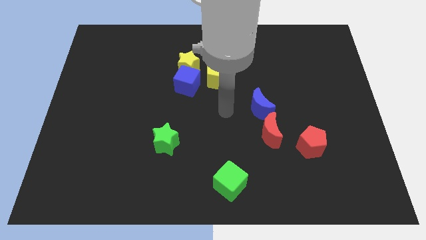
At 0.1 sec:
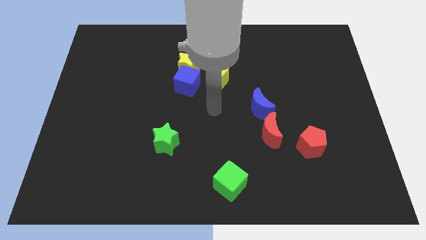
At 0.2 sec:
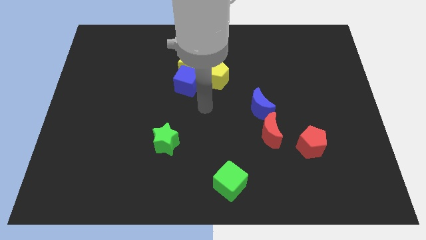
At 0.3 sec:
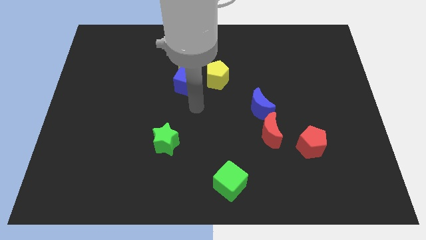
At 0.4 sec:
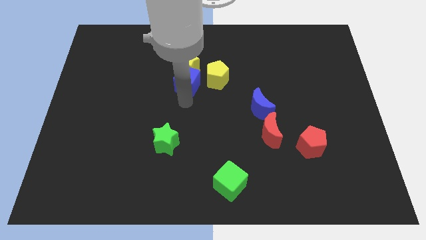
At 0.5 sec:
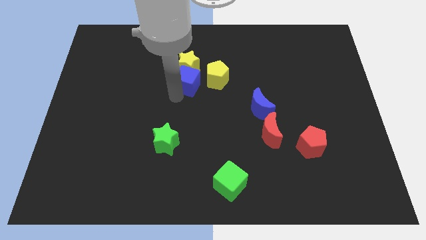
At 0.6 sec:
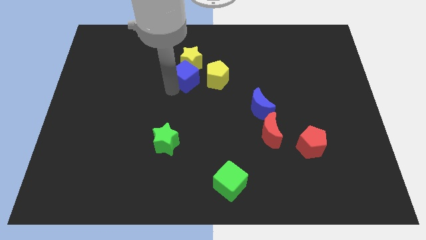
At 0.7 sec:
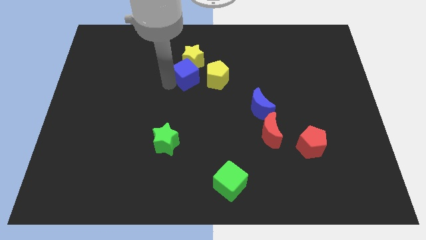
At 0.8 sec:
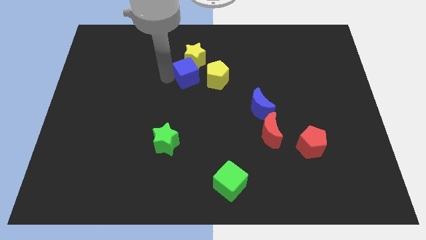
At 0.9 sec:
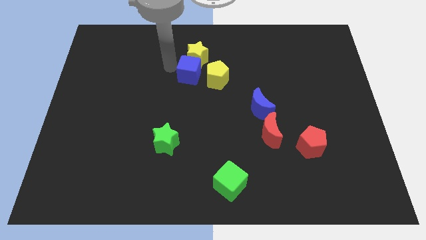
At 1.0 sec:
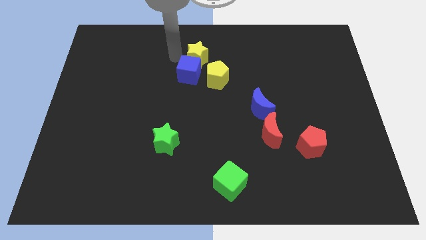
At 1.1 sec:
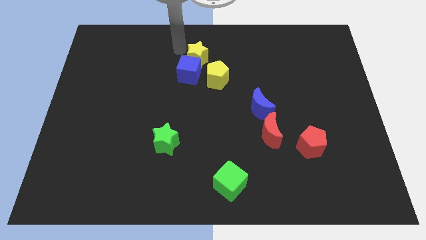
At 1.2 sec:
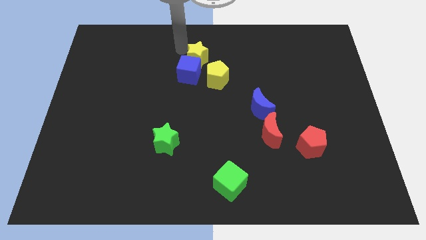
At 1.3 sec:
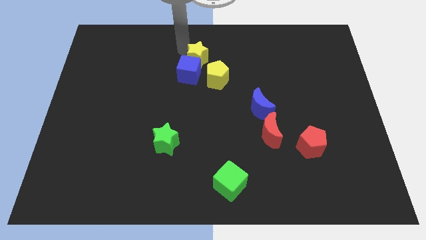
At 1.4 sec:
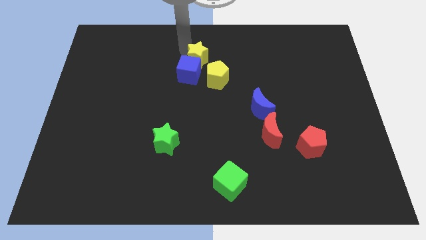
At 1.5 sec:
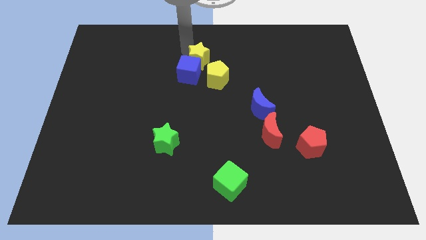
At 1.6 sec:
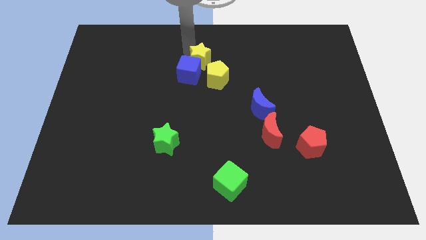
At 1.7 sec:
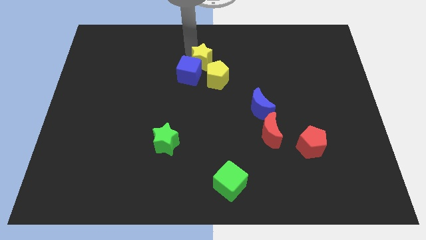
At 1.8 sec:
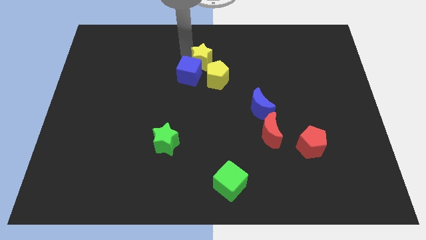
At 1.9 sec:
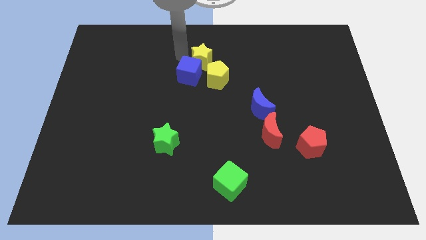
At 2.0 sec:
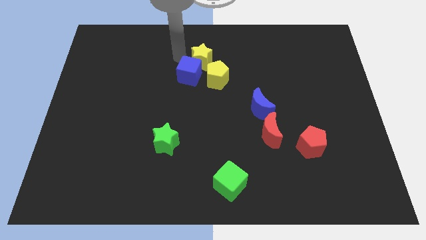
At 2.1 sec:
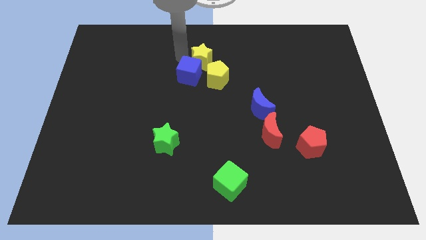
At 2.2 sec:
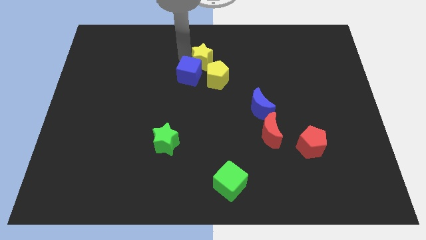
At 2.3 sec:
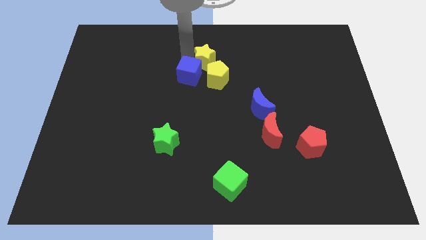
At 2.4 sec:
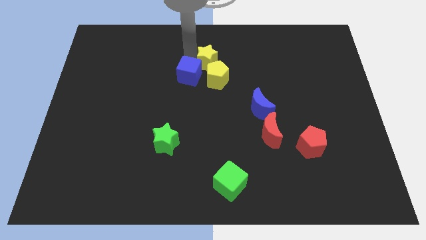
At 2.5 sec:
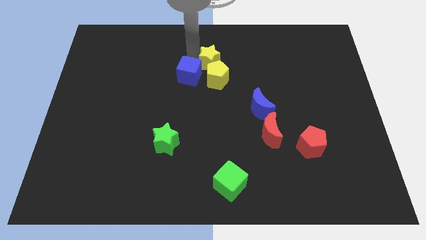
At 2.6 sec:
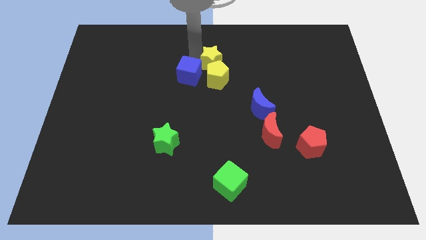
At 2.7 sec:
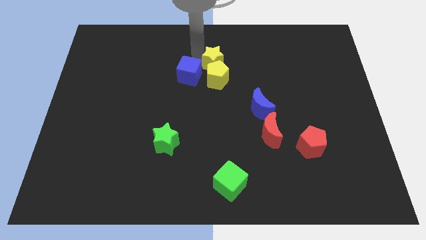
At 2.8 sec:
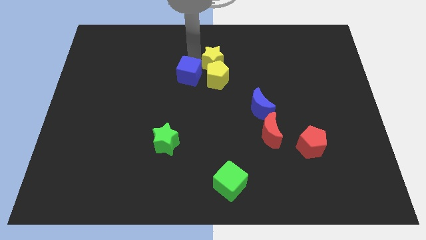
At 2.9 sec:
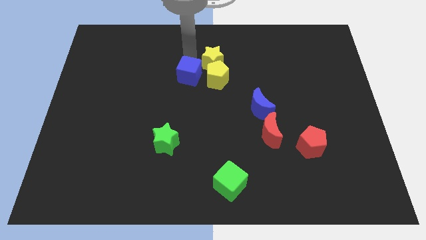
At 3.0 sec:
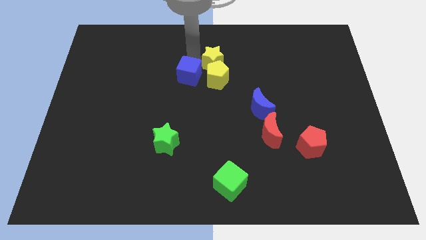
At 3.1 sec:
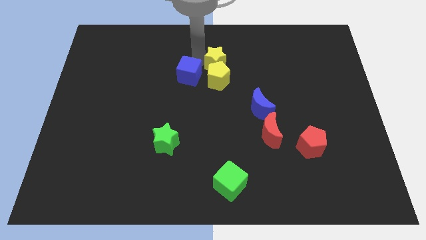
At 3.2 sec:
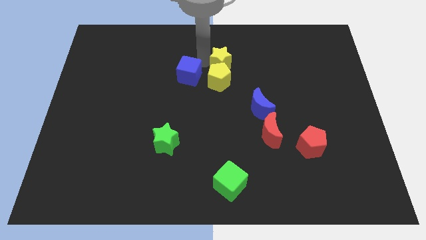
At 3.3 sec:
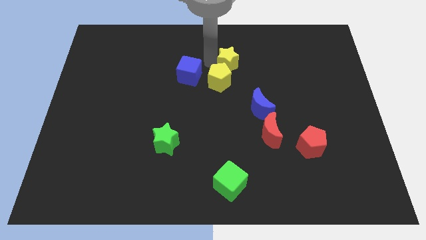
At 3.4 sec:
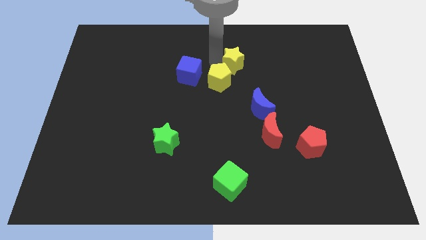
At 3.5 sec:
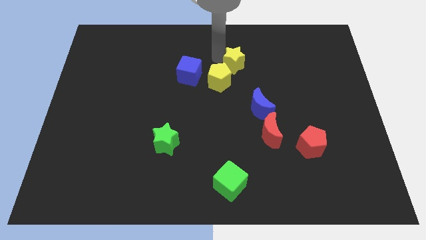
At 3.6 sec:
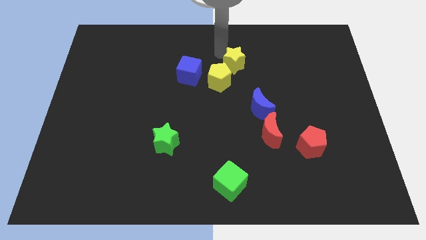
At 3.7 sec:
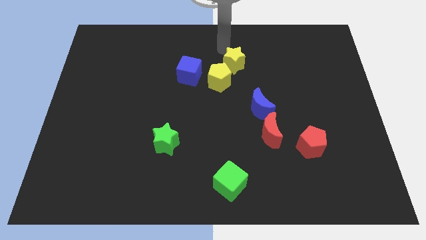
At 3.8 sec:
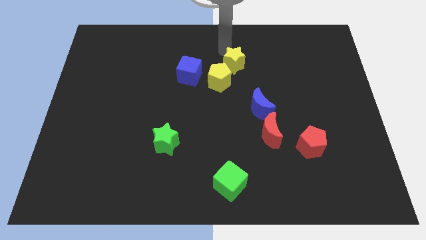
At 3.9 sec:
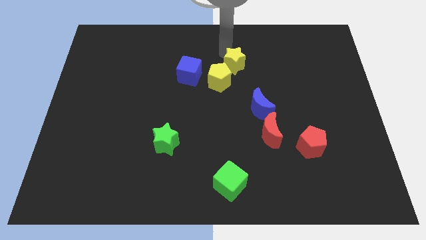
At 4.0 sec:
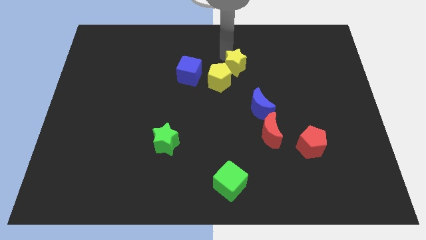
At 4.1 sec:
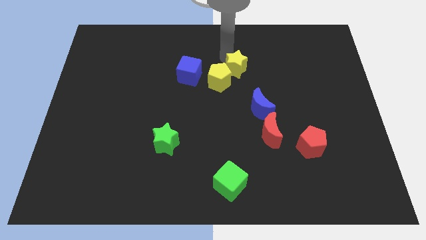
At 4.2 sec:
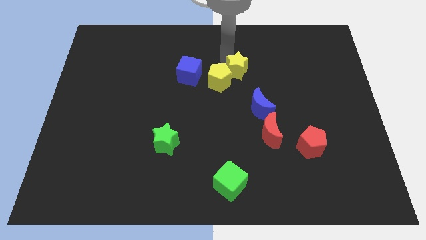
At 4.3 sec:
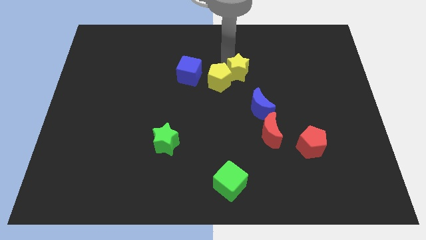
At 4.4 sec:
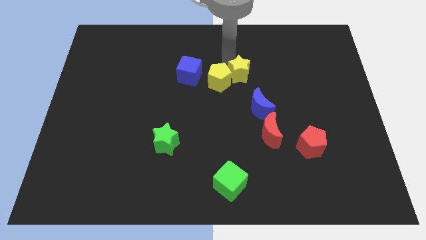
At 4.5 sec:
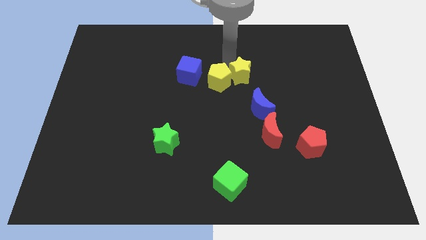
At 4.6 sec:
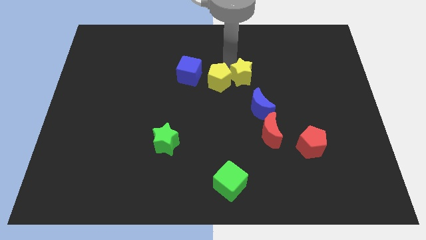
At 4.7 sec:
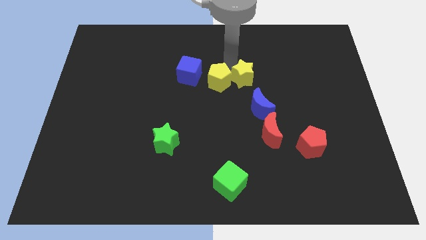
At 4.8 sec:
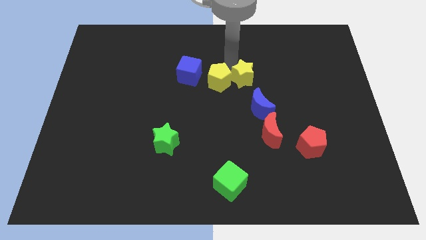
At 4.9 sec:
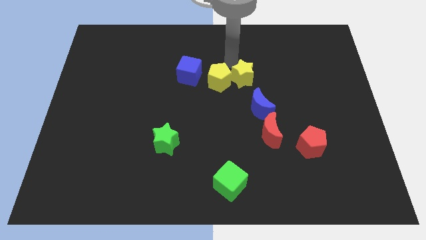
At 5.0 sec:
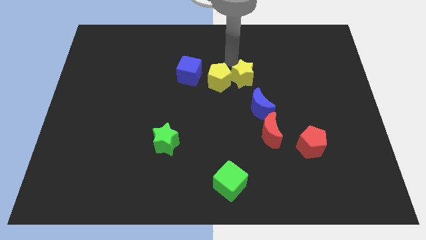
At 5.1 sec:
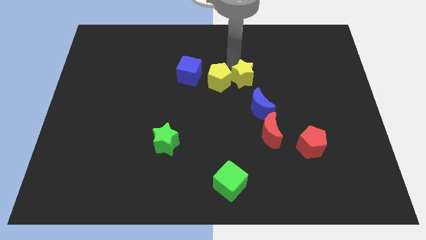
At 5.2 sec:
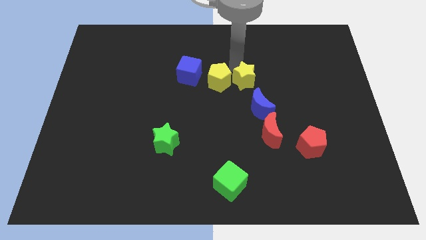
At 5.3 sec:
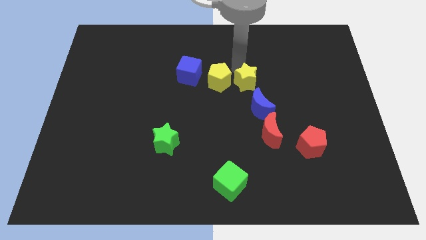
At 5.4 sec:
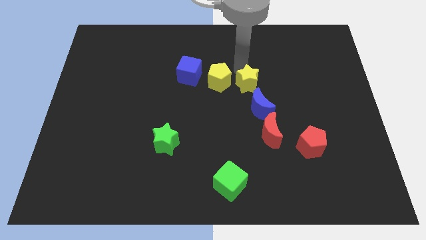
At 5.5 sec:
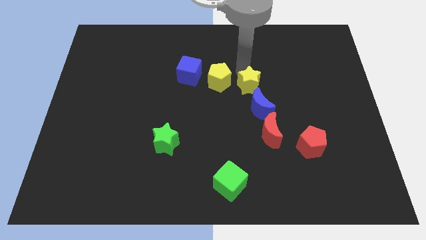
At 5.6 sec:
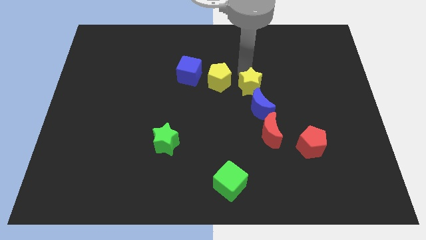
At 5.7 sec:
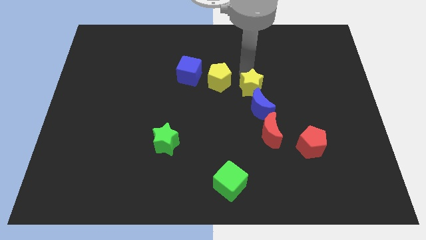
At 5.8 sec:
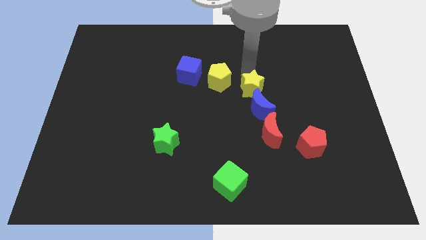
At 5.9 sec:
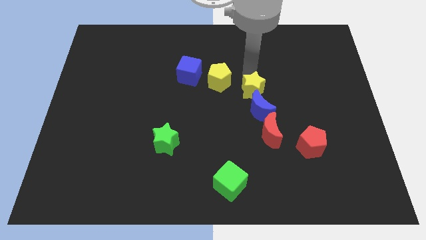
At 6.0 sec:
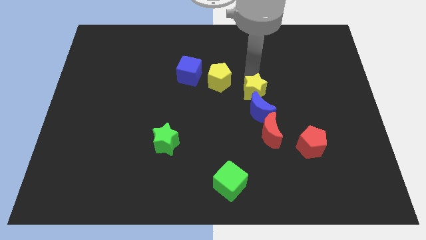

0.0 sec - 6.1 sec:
put the yellow star to the blue moon

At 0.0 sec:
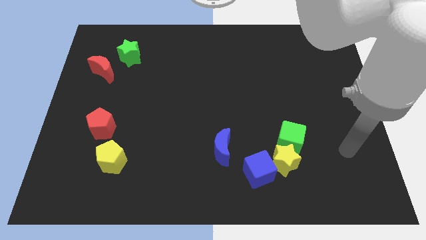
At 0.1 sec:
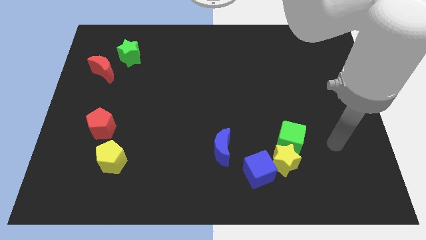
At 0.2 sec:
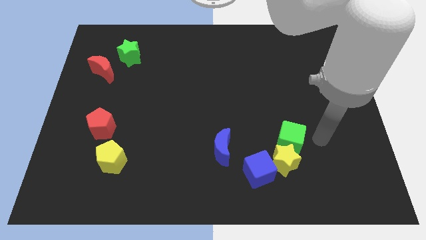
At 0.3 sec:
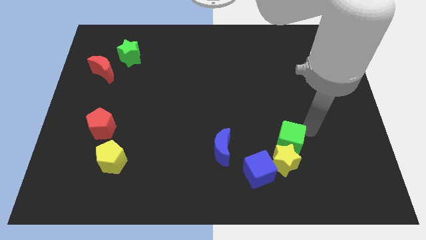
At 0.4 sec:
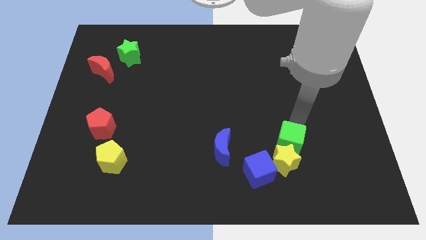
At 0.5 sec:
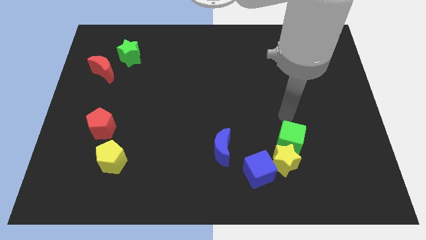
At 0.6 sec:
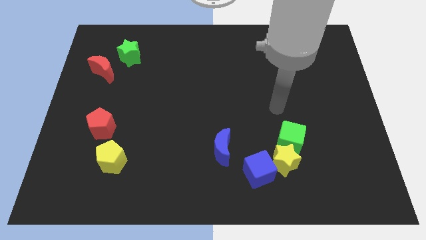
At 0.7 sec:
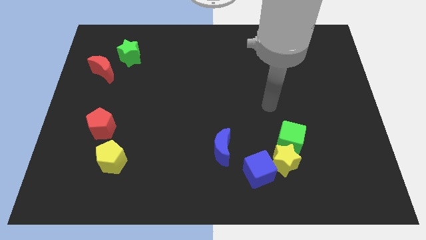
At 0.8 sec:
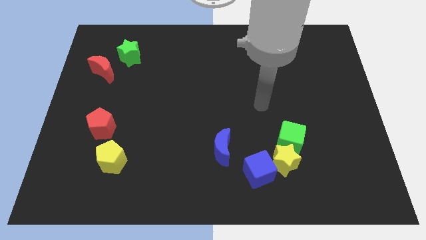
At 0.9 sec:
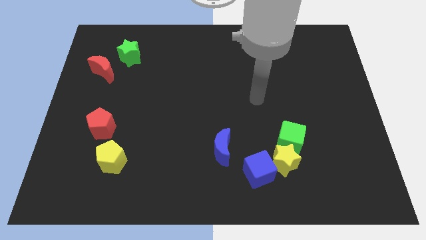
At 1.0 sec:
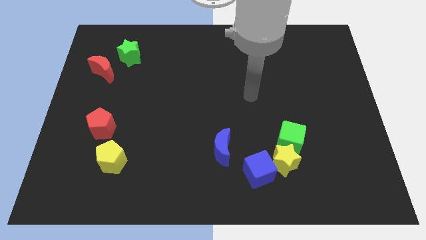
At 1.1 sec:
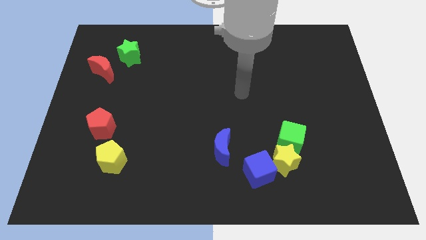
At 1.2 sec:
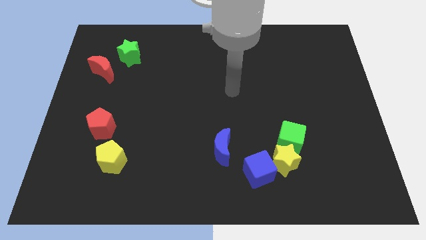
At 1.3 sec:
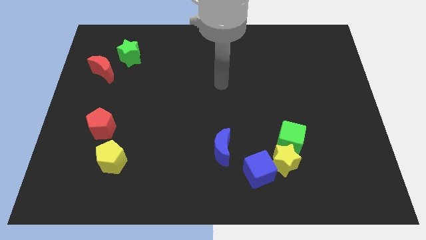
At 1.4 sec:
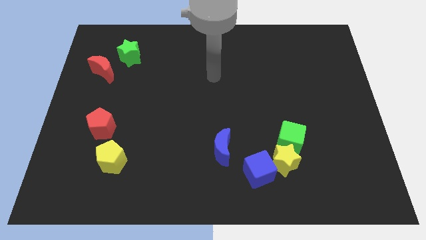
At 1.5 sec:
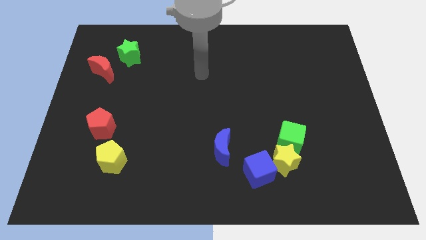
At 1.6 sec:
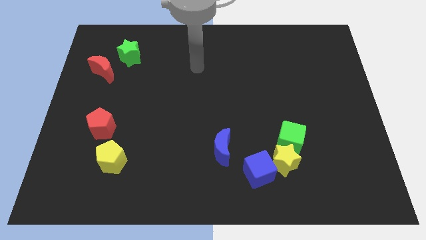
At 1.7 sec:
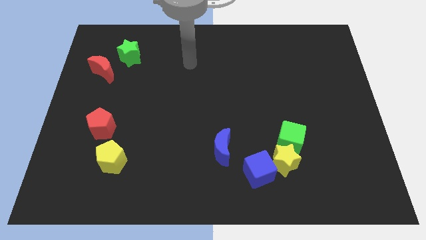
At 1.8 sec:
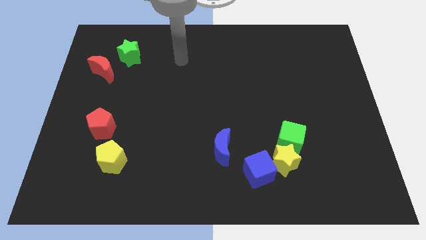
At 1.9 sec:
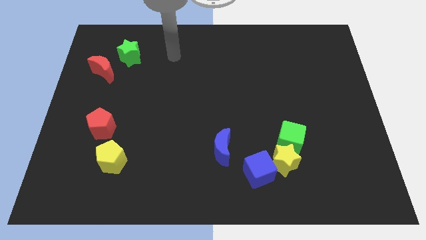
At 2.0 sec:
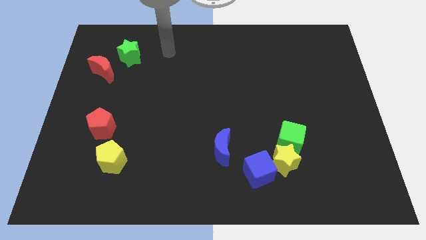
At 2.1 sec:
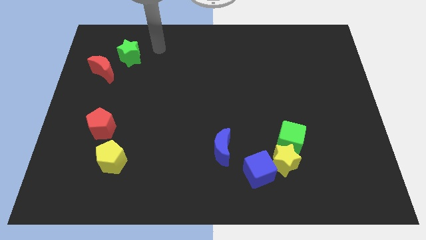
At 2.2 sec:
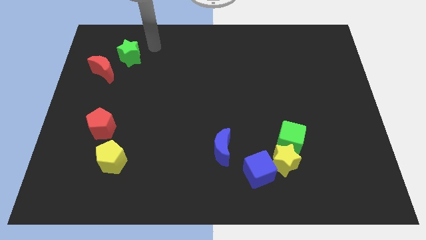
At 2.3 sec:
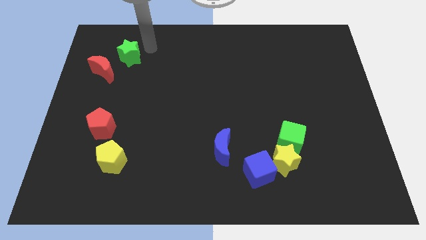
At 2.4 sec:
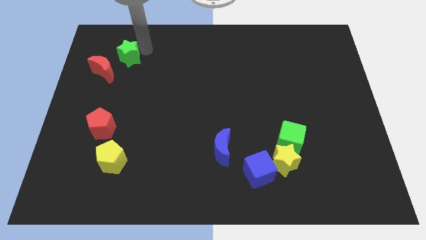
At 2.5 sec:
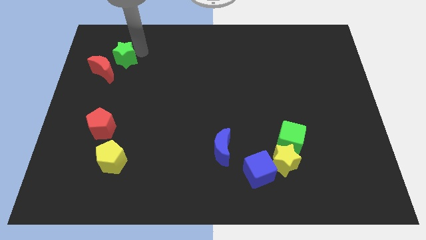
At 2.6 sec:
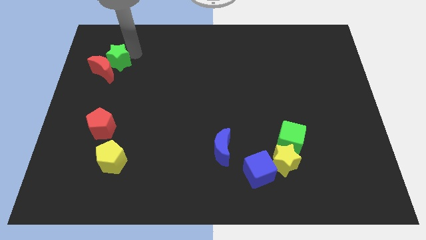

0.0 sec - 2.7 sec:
push the green star towards the red moon
